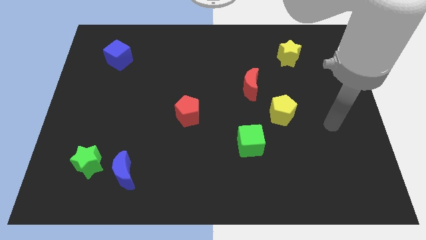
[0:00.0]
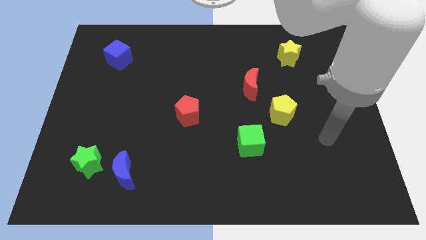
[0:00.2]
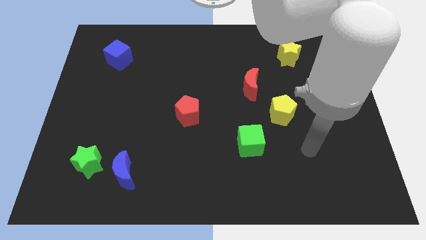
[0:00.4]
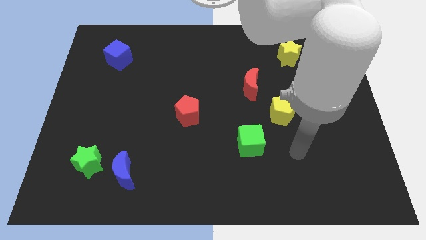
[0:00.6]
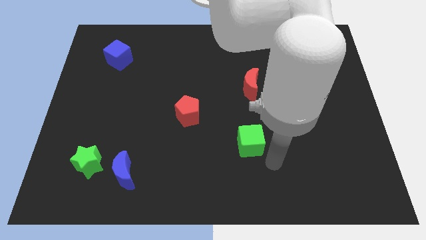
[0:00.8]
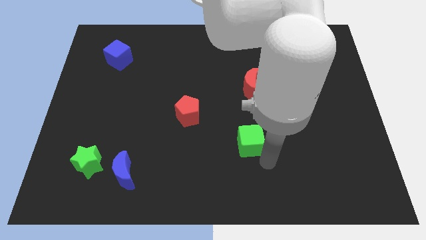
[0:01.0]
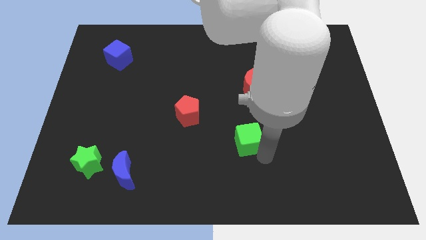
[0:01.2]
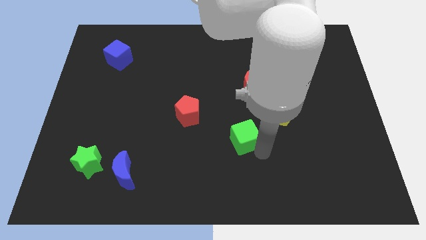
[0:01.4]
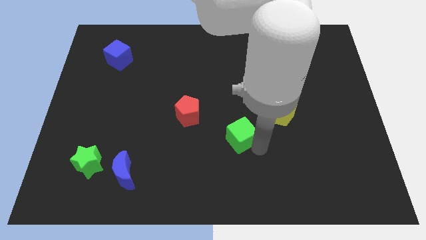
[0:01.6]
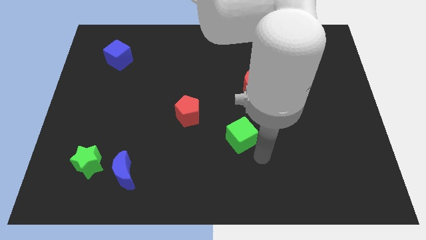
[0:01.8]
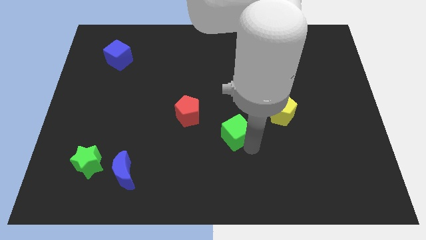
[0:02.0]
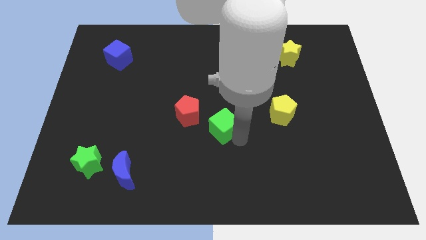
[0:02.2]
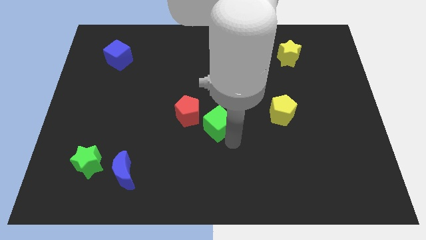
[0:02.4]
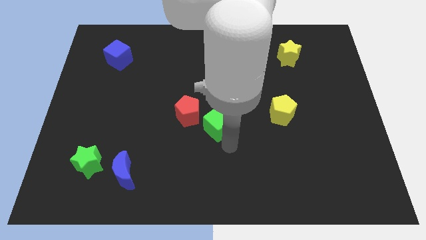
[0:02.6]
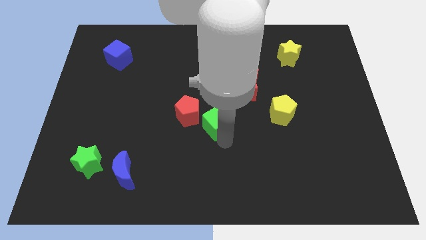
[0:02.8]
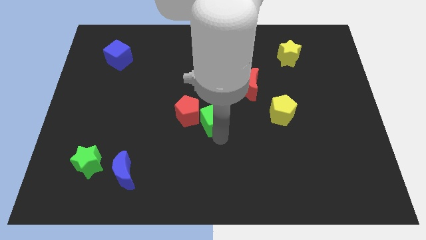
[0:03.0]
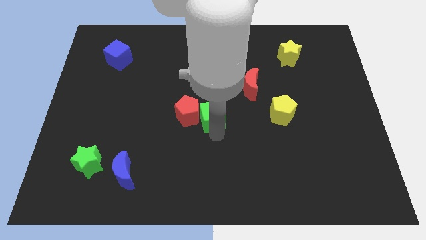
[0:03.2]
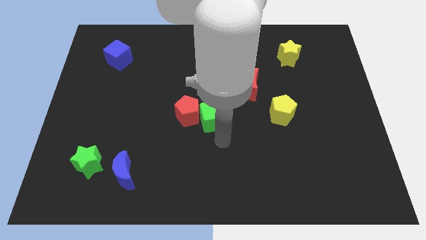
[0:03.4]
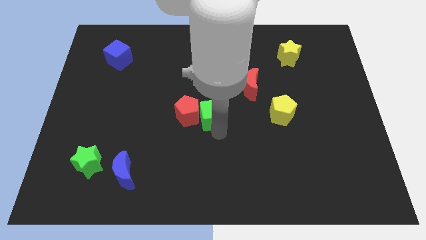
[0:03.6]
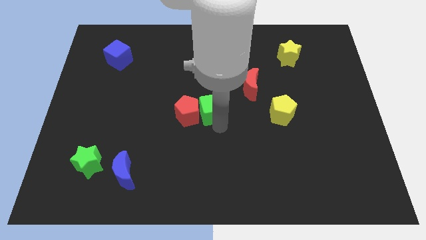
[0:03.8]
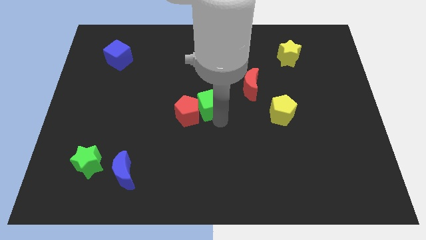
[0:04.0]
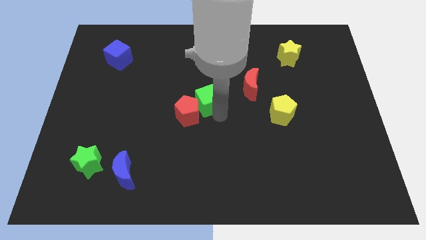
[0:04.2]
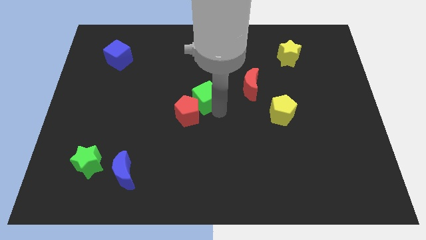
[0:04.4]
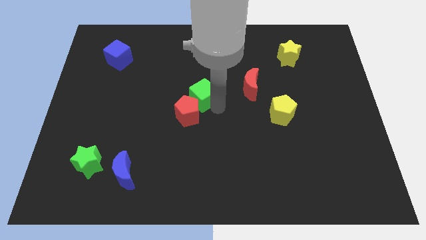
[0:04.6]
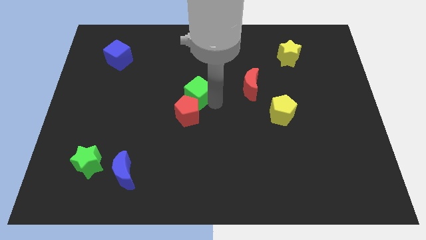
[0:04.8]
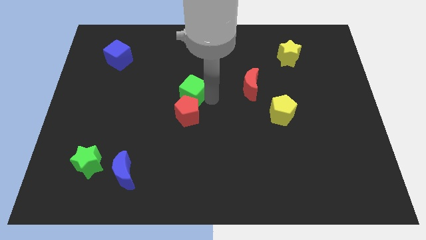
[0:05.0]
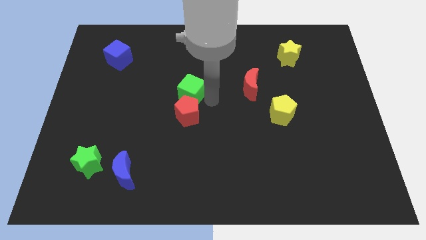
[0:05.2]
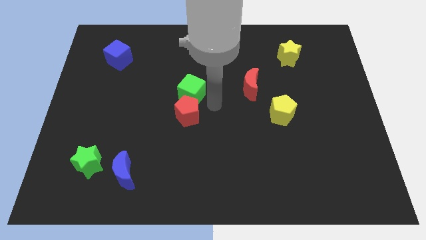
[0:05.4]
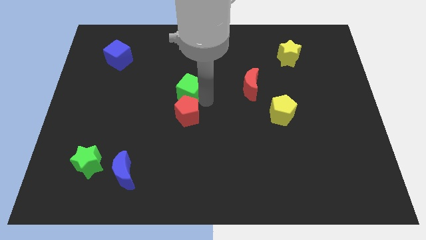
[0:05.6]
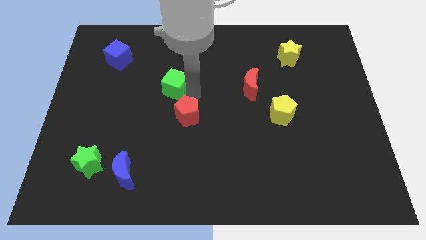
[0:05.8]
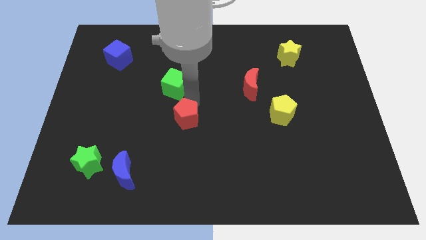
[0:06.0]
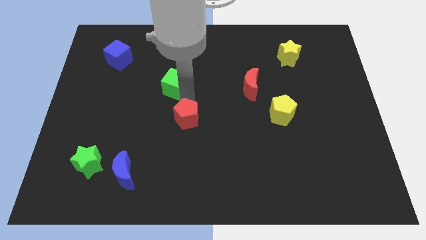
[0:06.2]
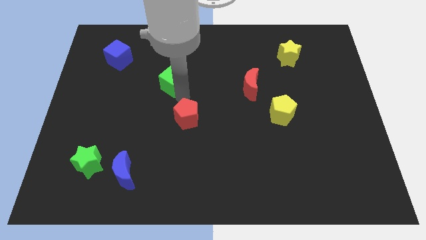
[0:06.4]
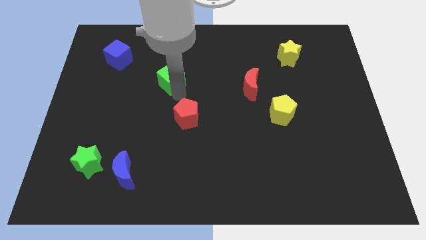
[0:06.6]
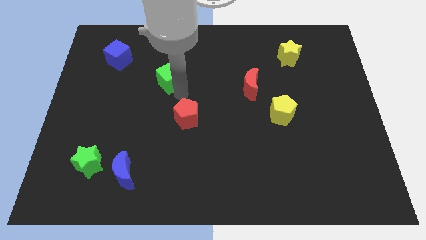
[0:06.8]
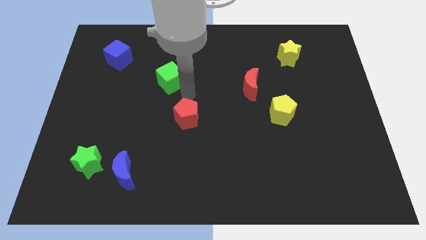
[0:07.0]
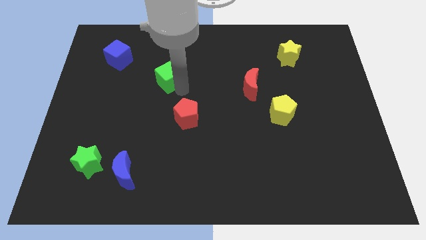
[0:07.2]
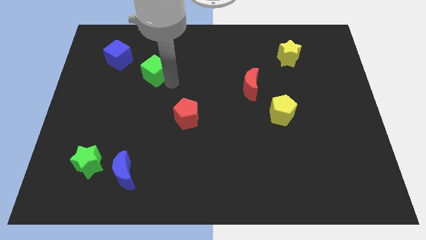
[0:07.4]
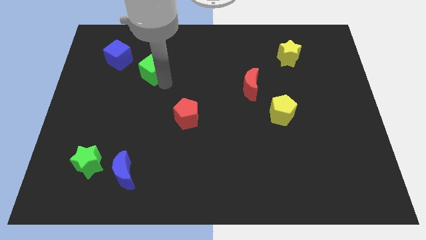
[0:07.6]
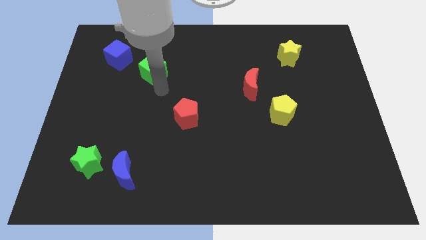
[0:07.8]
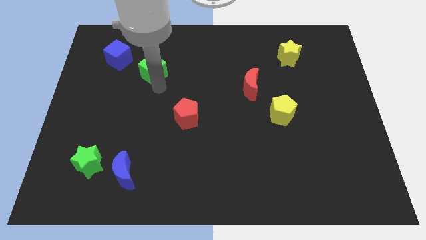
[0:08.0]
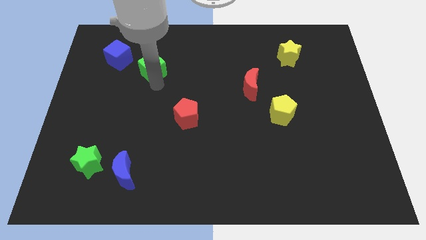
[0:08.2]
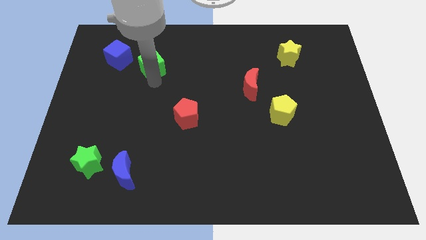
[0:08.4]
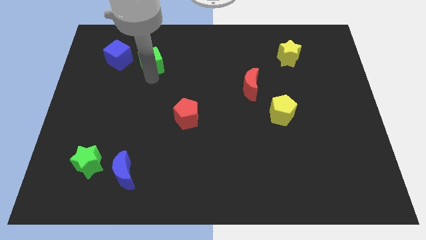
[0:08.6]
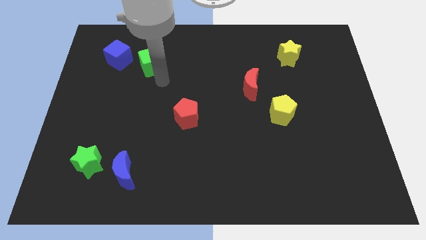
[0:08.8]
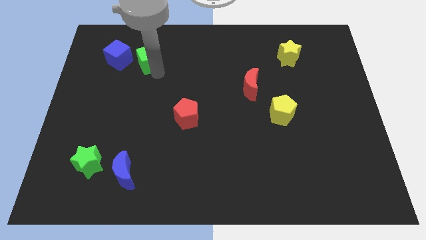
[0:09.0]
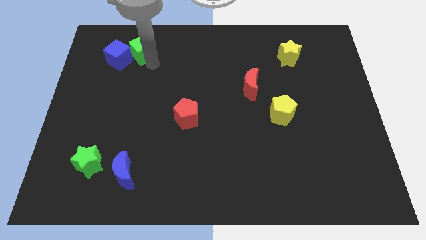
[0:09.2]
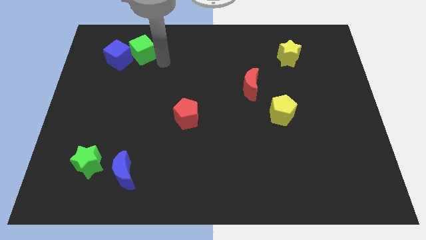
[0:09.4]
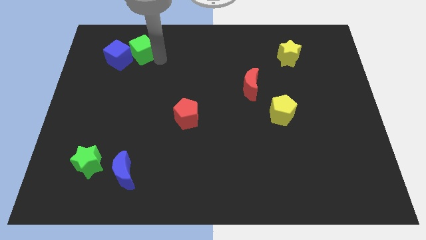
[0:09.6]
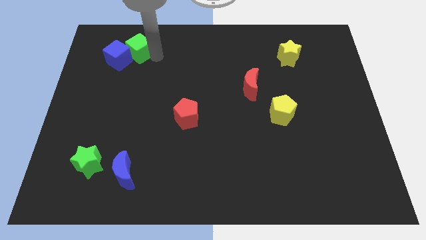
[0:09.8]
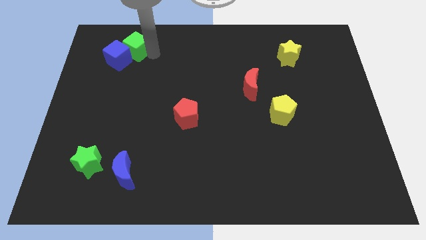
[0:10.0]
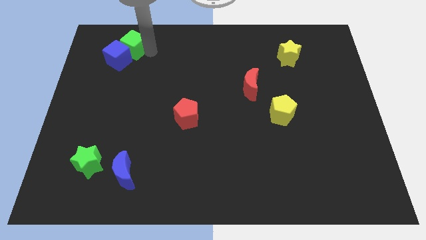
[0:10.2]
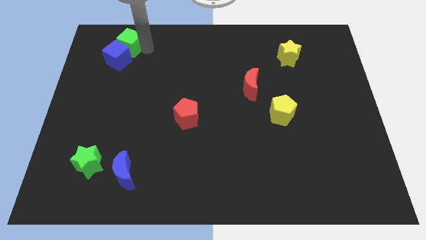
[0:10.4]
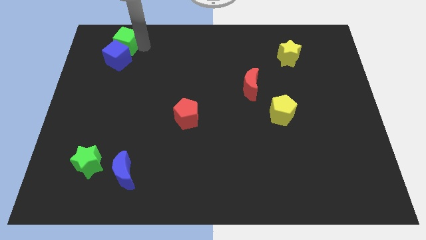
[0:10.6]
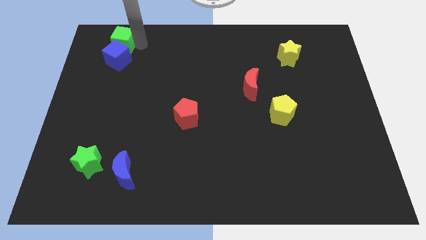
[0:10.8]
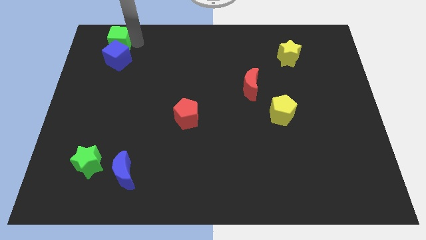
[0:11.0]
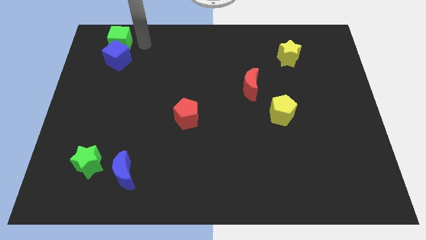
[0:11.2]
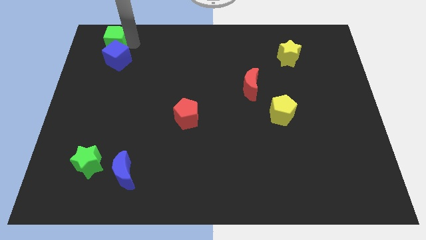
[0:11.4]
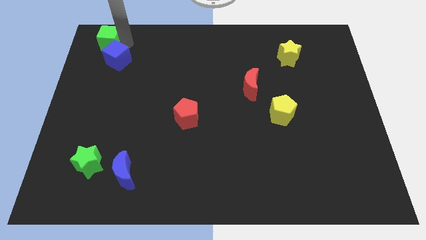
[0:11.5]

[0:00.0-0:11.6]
push the green cube to the top left
